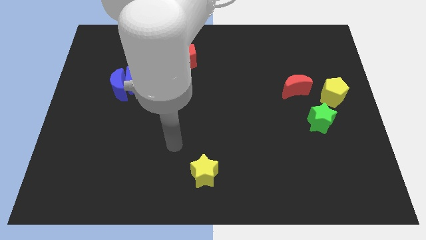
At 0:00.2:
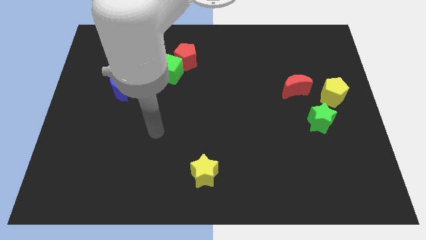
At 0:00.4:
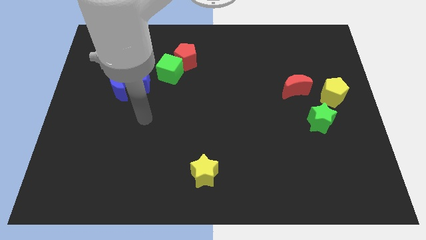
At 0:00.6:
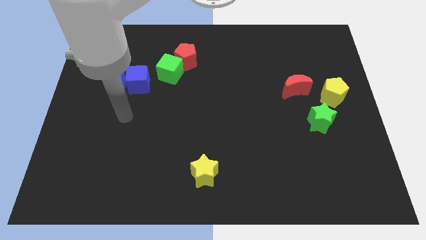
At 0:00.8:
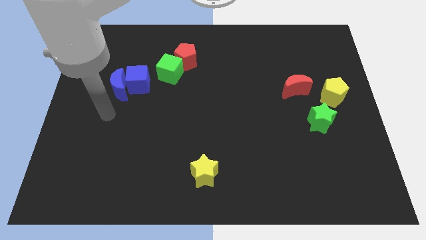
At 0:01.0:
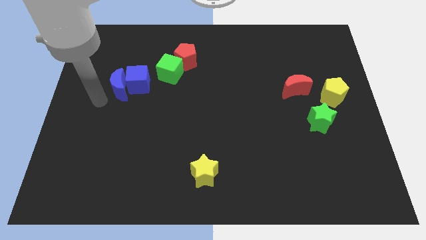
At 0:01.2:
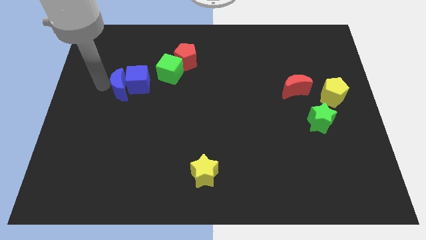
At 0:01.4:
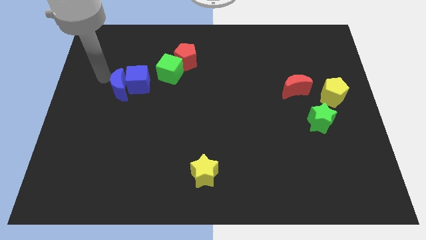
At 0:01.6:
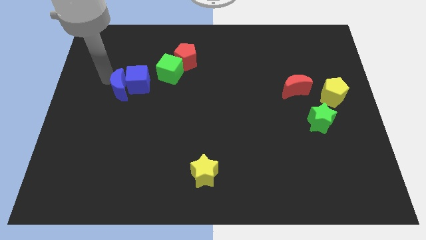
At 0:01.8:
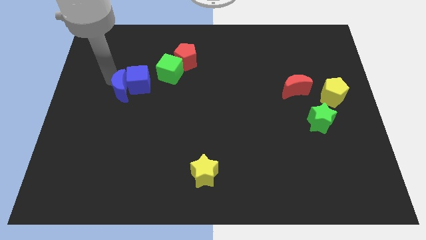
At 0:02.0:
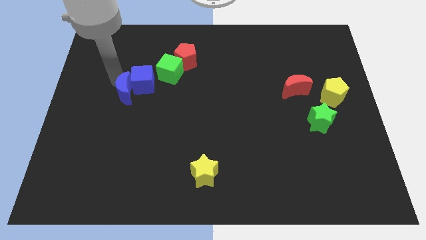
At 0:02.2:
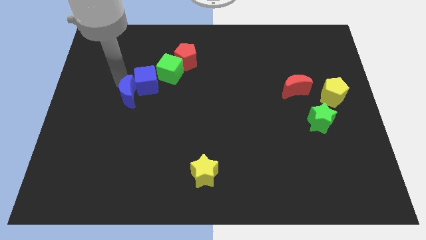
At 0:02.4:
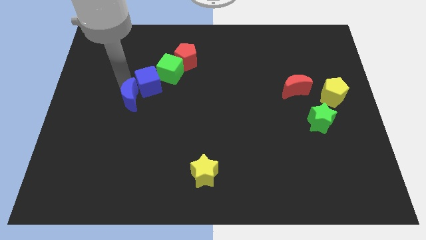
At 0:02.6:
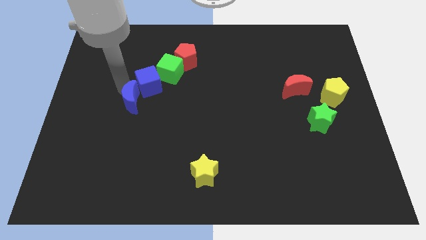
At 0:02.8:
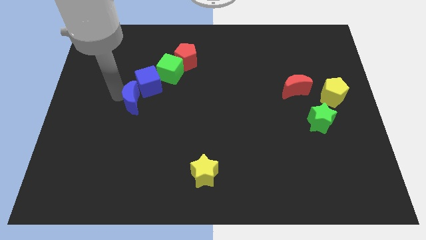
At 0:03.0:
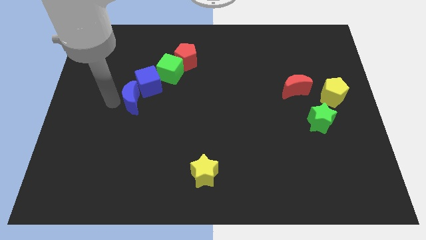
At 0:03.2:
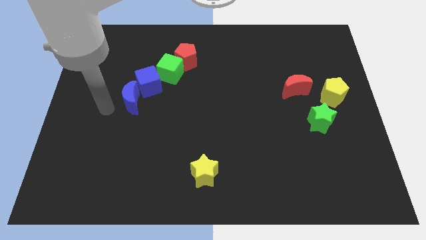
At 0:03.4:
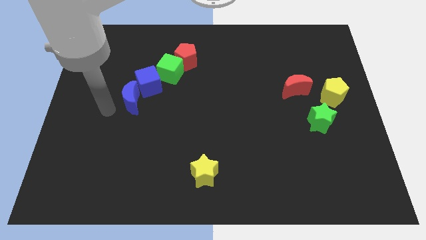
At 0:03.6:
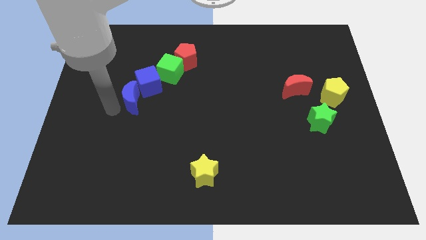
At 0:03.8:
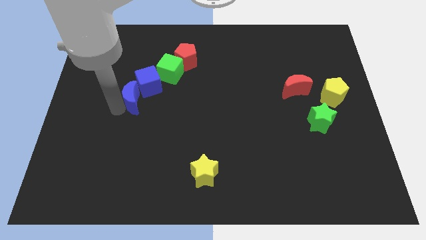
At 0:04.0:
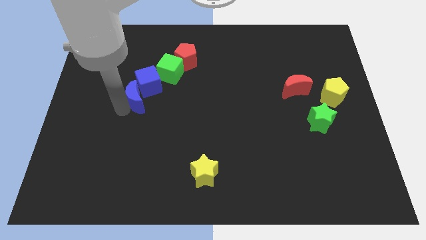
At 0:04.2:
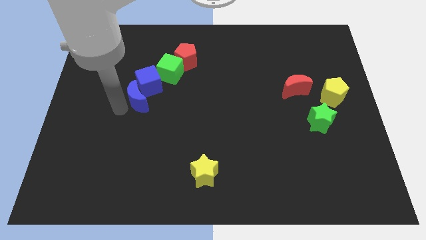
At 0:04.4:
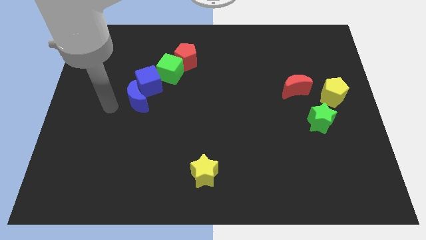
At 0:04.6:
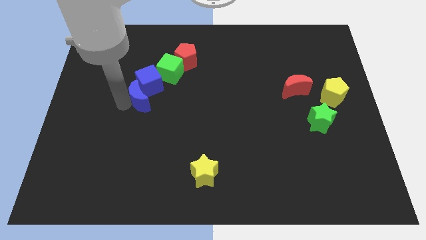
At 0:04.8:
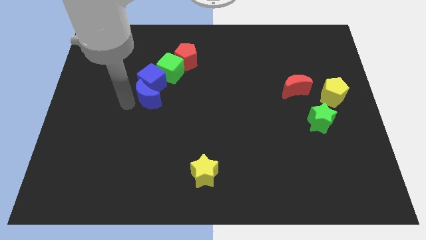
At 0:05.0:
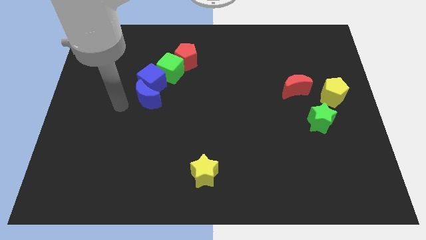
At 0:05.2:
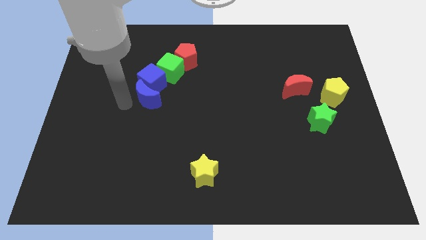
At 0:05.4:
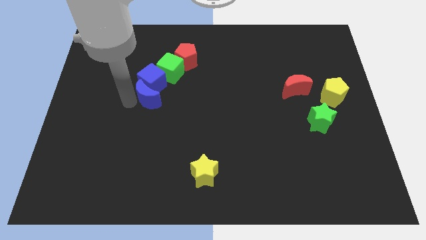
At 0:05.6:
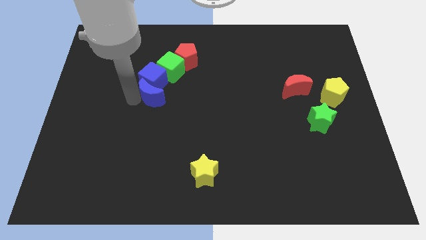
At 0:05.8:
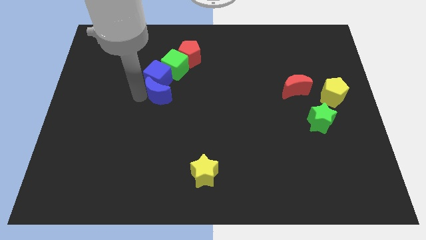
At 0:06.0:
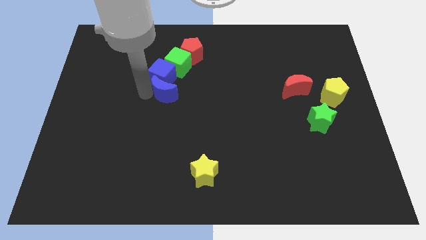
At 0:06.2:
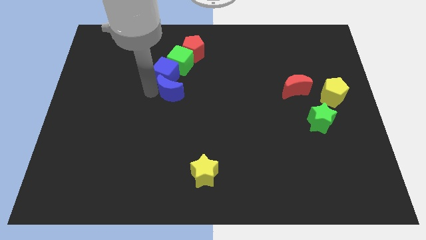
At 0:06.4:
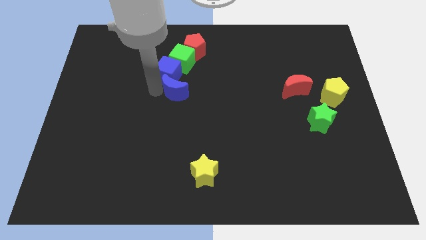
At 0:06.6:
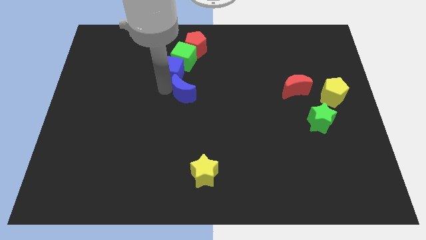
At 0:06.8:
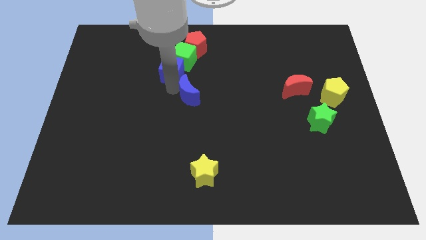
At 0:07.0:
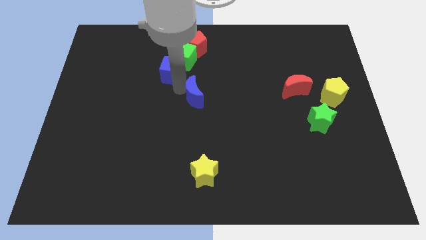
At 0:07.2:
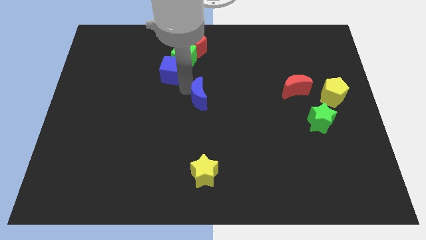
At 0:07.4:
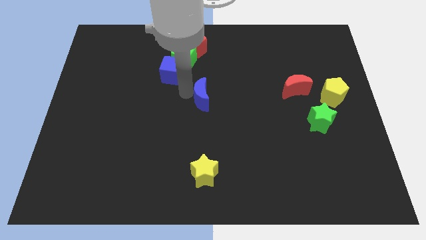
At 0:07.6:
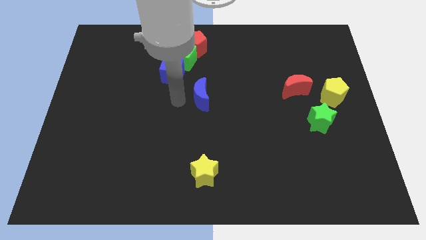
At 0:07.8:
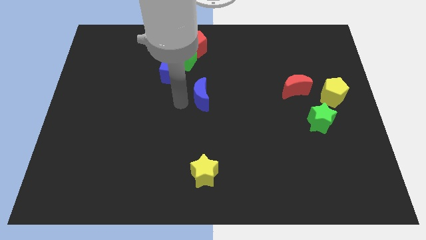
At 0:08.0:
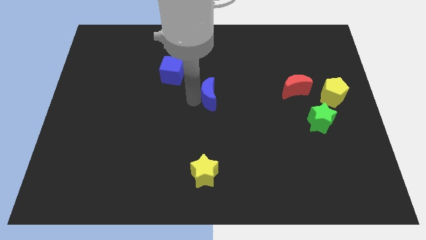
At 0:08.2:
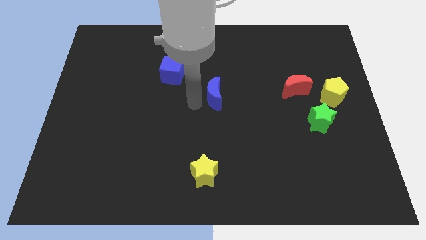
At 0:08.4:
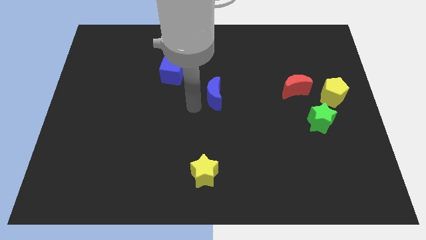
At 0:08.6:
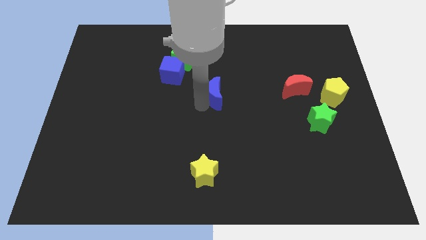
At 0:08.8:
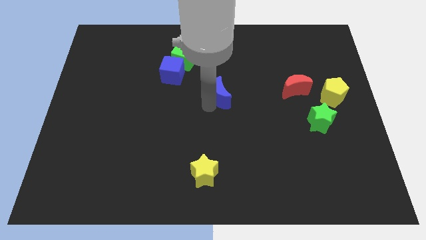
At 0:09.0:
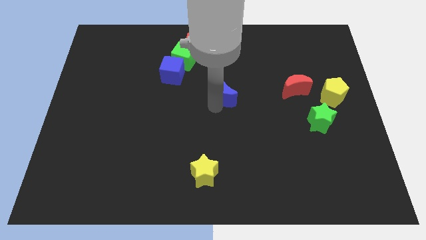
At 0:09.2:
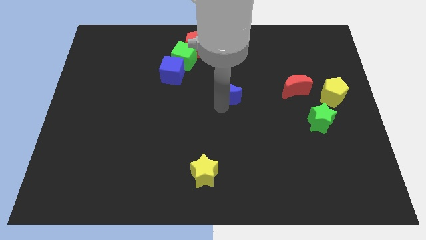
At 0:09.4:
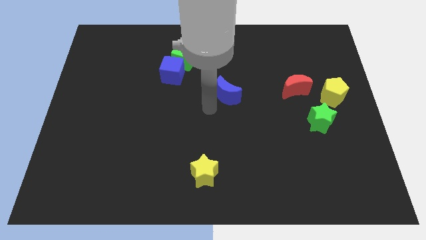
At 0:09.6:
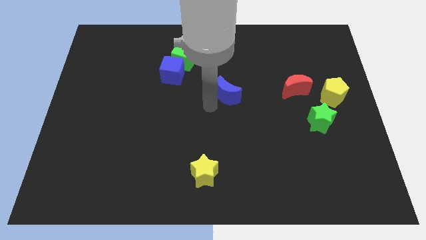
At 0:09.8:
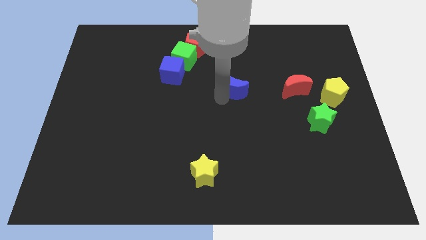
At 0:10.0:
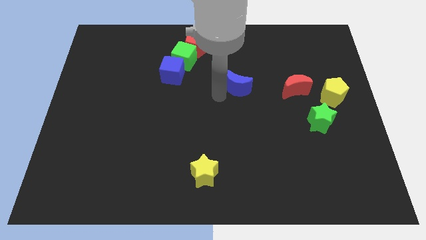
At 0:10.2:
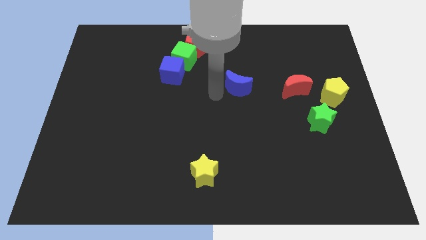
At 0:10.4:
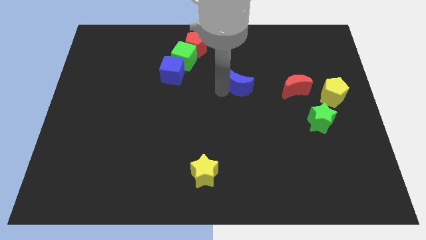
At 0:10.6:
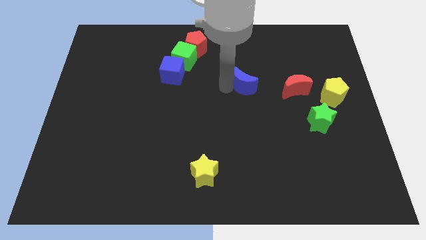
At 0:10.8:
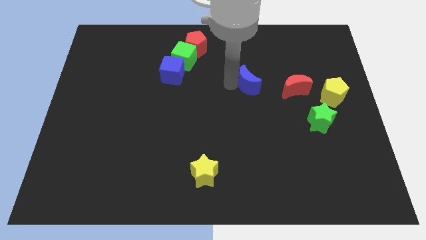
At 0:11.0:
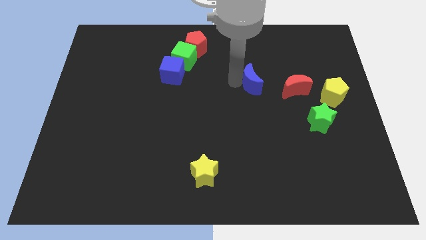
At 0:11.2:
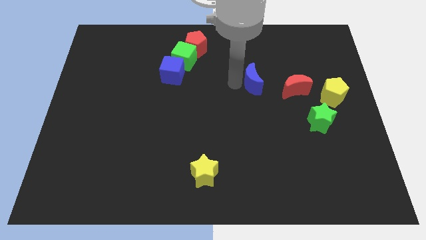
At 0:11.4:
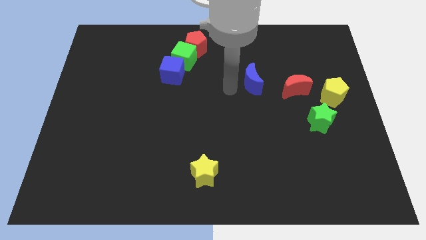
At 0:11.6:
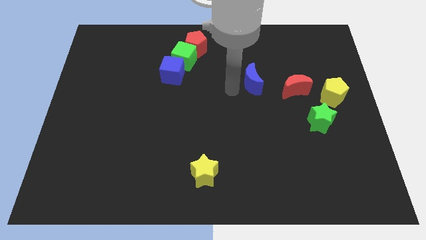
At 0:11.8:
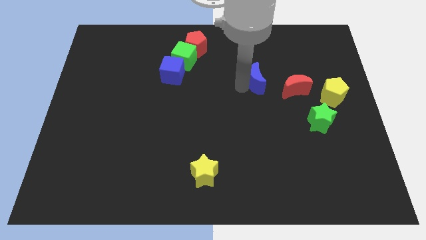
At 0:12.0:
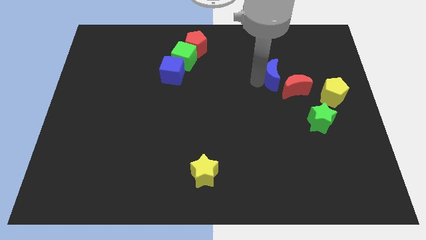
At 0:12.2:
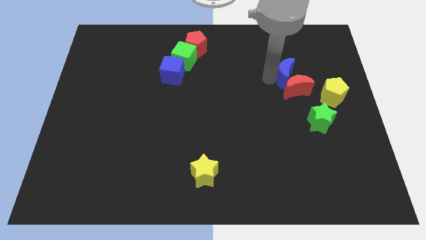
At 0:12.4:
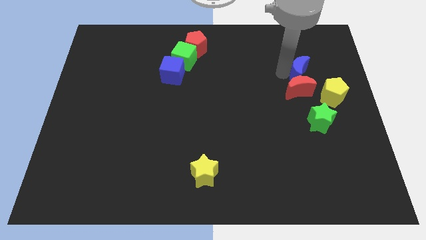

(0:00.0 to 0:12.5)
move the blue moon to the top side of the green star

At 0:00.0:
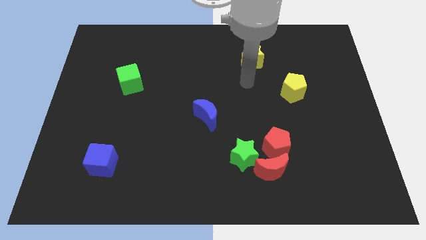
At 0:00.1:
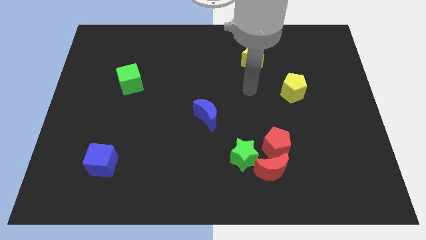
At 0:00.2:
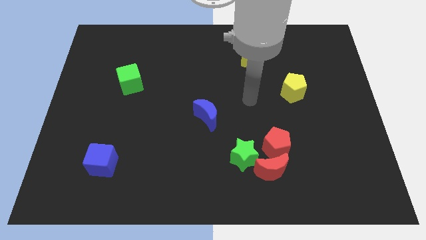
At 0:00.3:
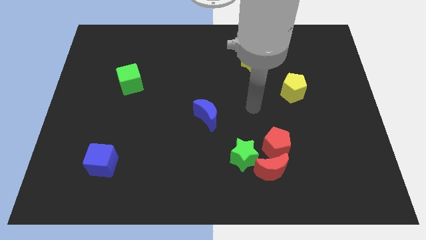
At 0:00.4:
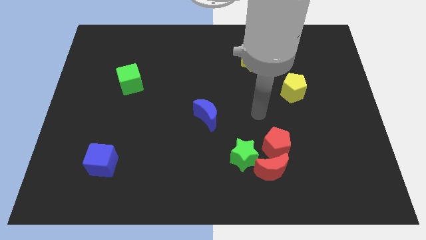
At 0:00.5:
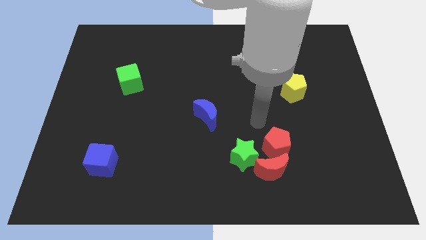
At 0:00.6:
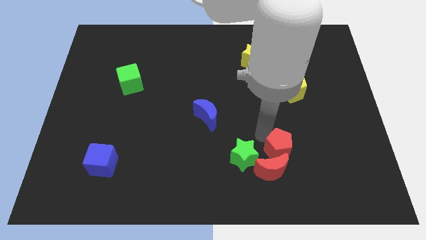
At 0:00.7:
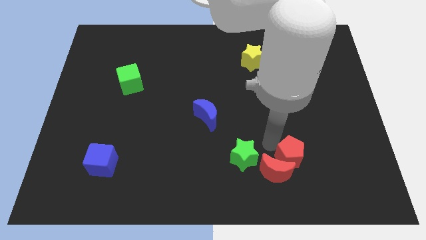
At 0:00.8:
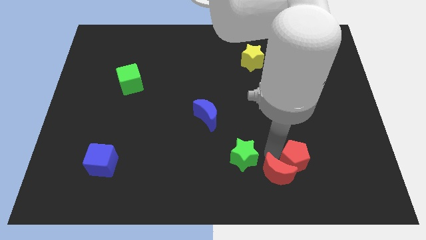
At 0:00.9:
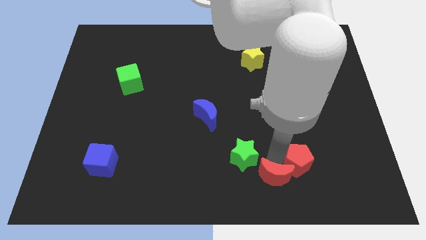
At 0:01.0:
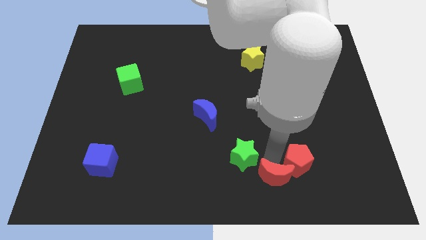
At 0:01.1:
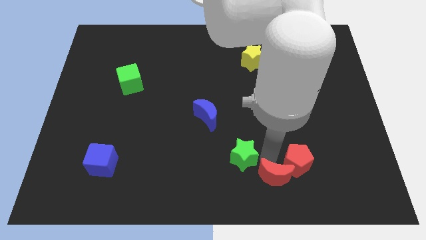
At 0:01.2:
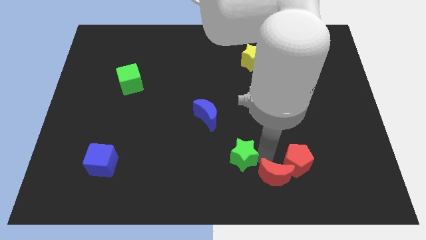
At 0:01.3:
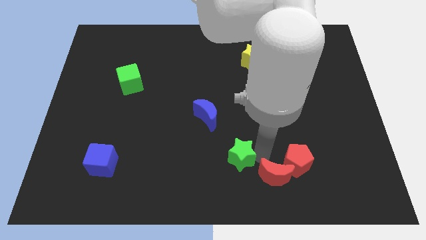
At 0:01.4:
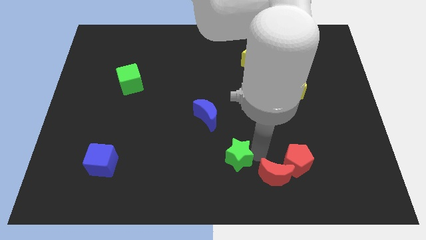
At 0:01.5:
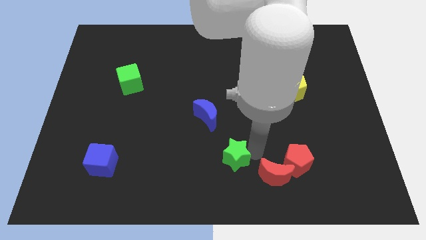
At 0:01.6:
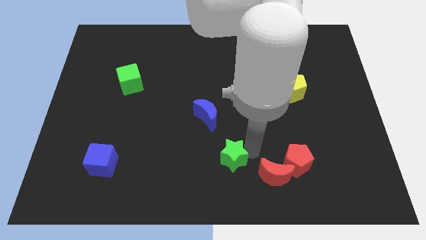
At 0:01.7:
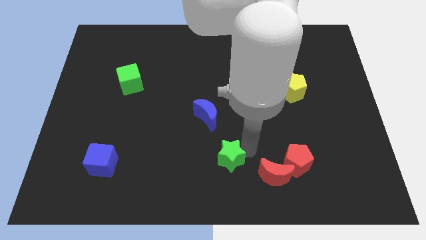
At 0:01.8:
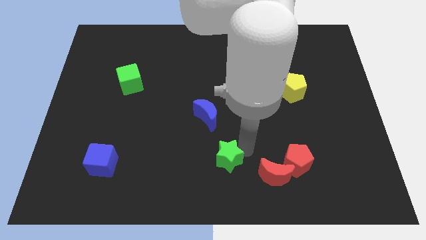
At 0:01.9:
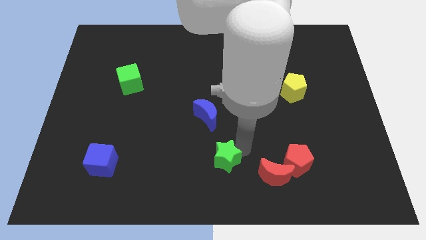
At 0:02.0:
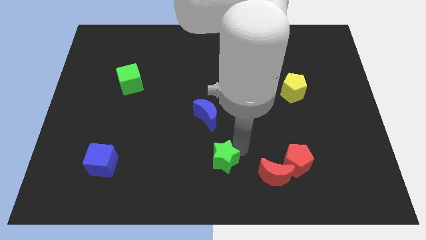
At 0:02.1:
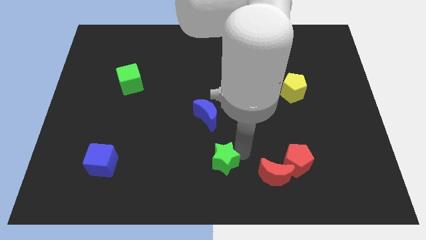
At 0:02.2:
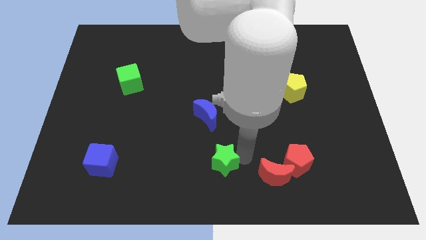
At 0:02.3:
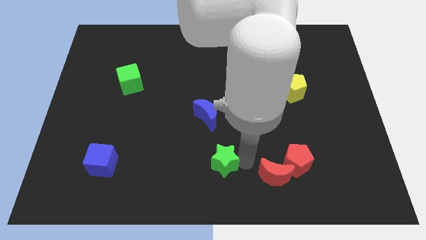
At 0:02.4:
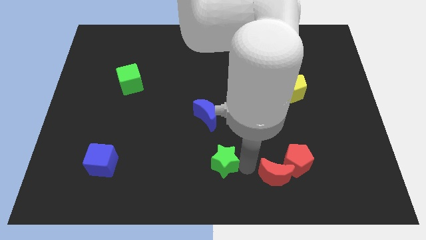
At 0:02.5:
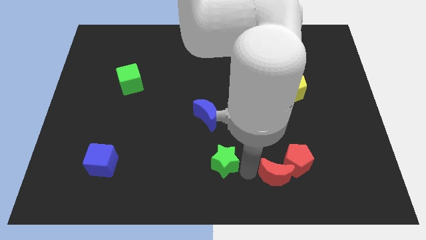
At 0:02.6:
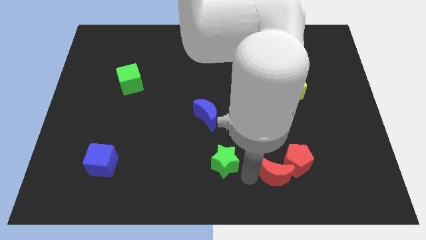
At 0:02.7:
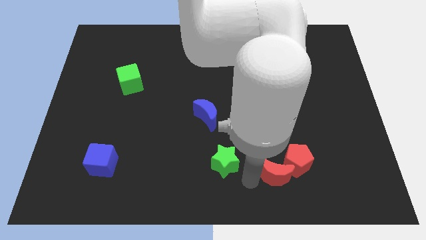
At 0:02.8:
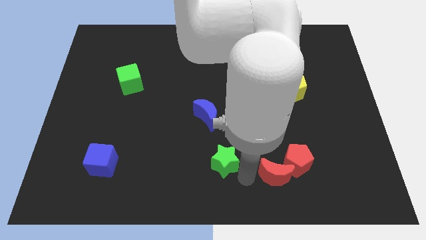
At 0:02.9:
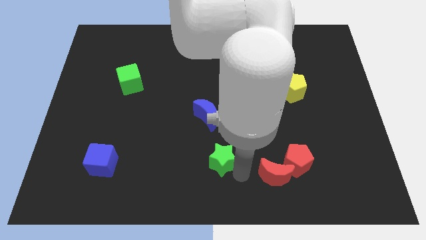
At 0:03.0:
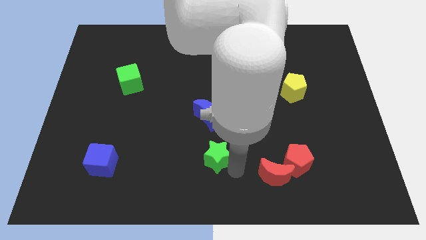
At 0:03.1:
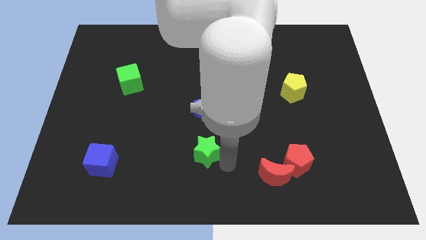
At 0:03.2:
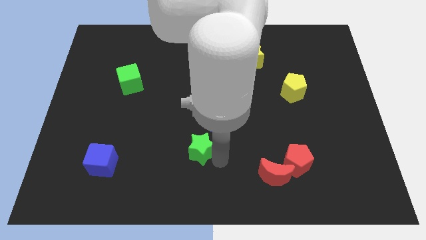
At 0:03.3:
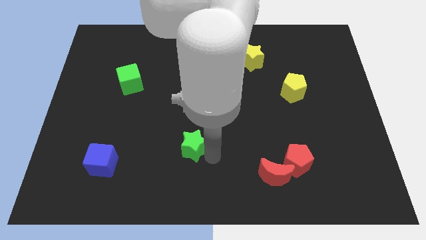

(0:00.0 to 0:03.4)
slide the green star to the bottom left of the blue moon
